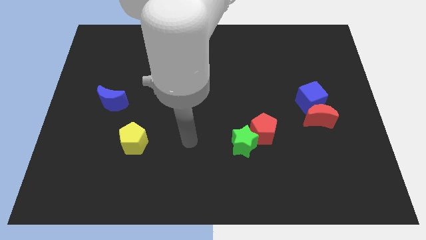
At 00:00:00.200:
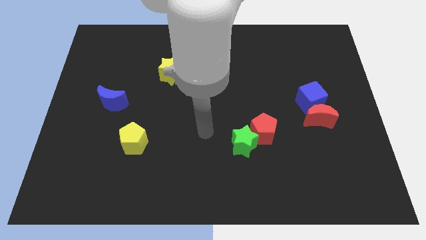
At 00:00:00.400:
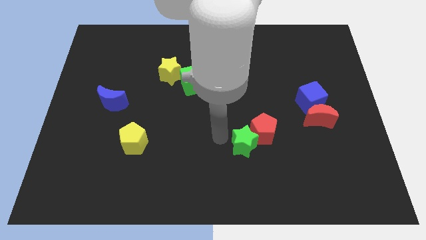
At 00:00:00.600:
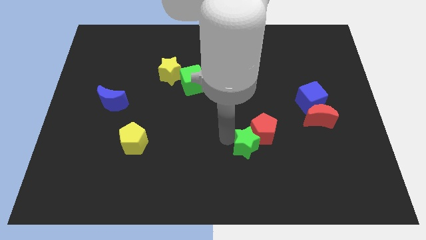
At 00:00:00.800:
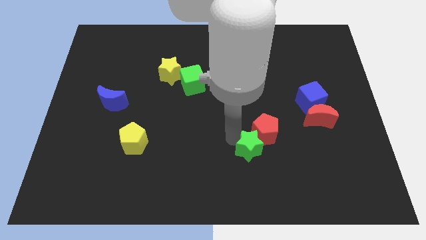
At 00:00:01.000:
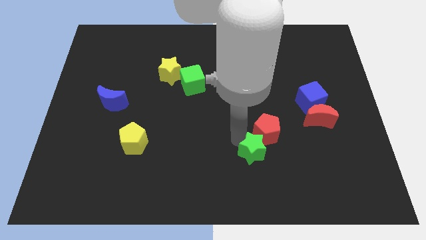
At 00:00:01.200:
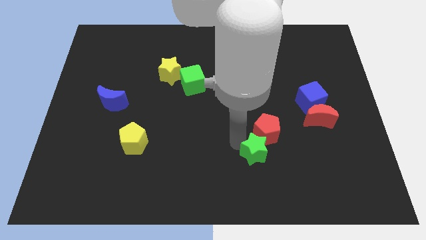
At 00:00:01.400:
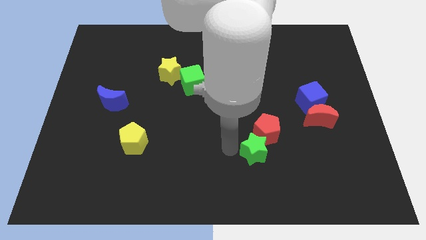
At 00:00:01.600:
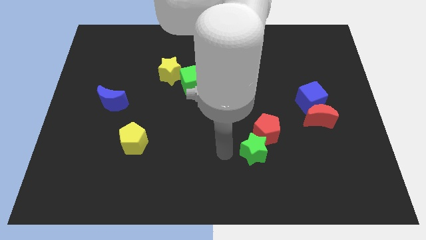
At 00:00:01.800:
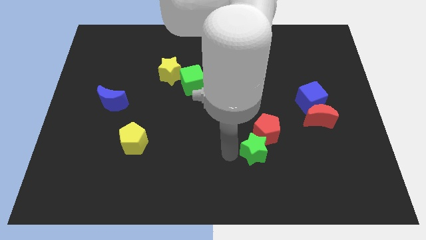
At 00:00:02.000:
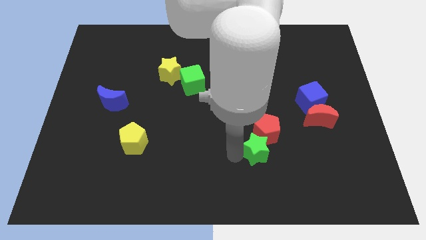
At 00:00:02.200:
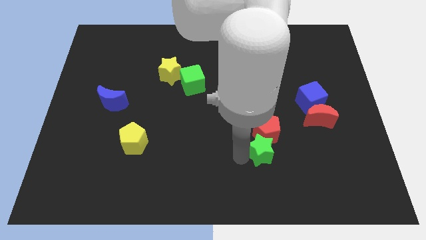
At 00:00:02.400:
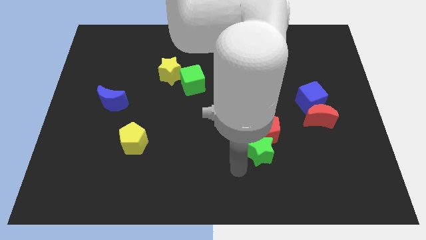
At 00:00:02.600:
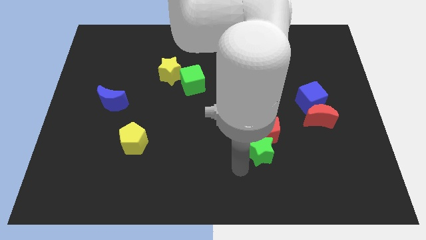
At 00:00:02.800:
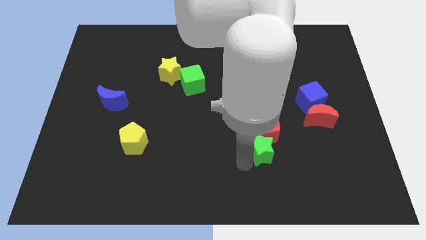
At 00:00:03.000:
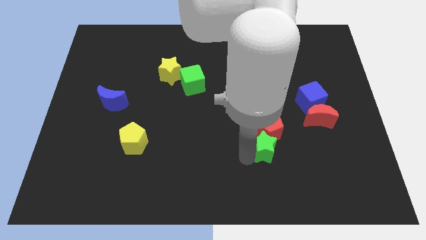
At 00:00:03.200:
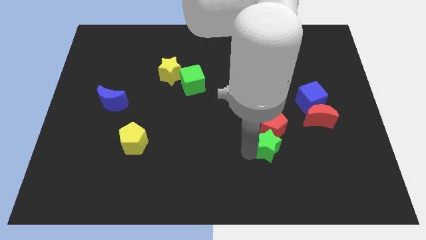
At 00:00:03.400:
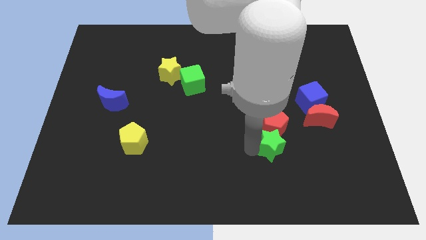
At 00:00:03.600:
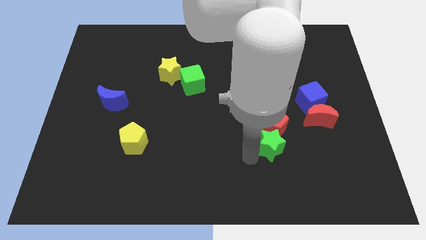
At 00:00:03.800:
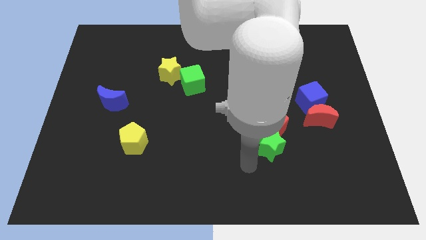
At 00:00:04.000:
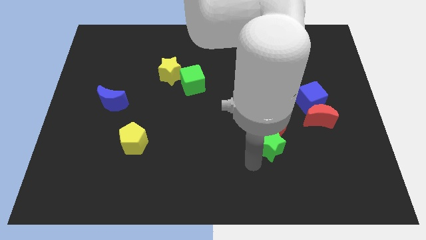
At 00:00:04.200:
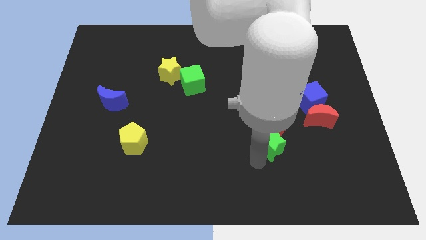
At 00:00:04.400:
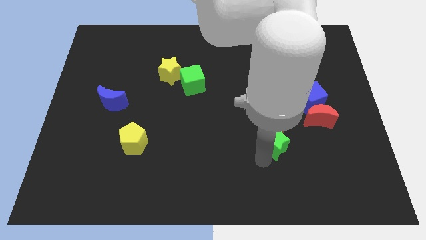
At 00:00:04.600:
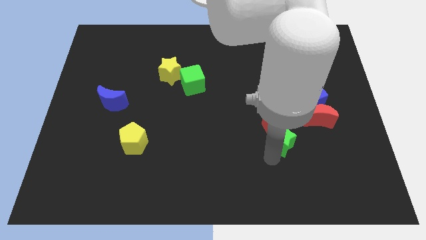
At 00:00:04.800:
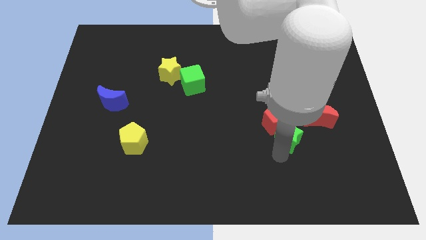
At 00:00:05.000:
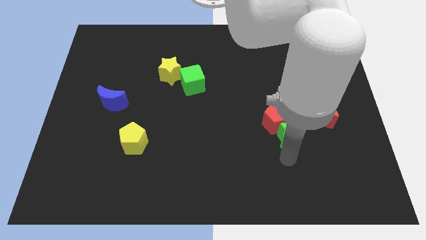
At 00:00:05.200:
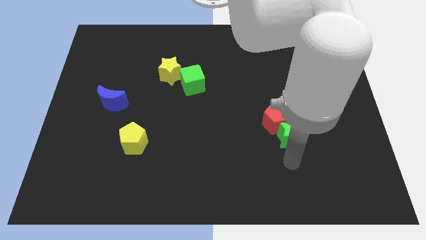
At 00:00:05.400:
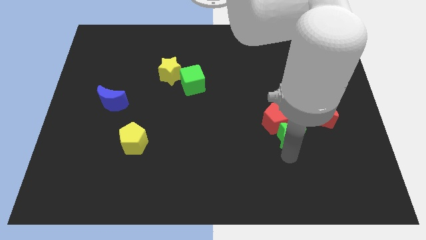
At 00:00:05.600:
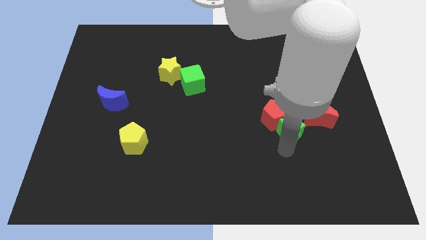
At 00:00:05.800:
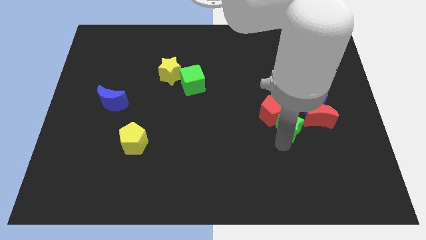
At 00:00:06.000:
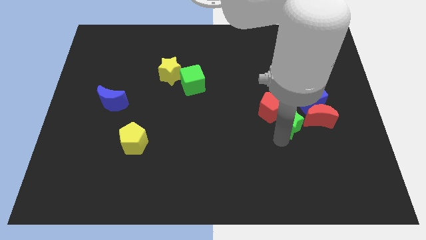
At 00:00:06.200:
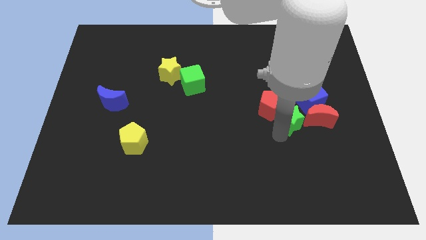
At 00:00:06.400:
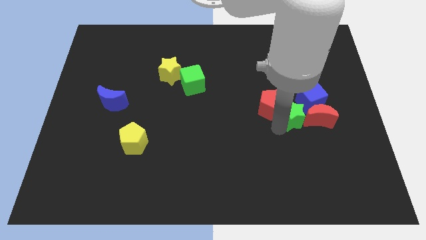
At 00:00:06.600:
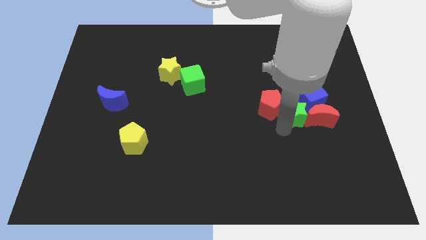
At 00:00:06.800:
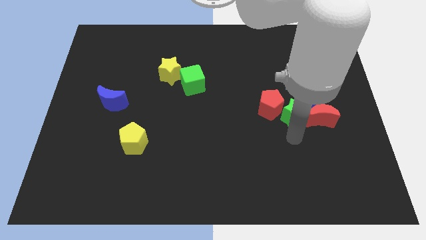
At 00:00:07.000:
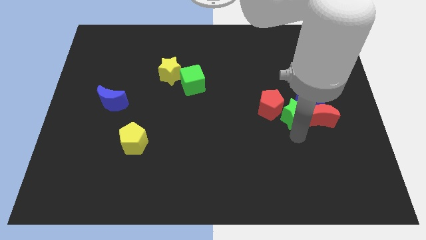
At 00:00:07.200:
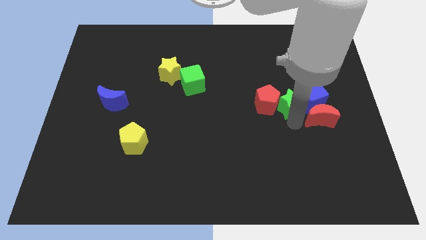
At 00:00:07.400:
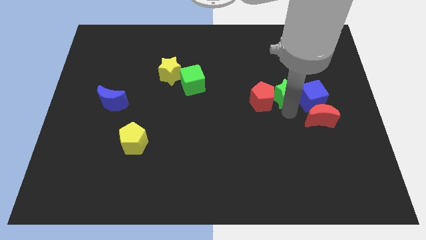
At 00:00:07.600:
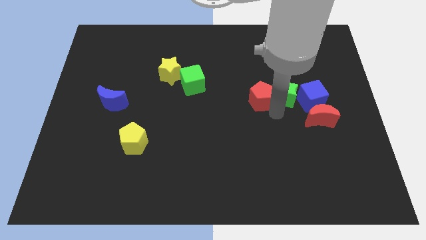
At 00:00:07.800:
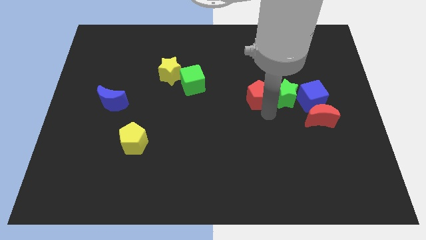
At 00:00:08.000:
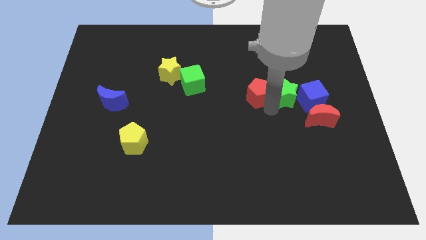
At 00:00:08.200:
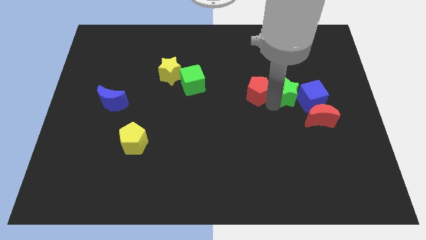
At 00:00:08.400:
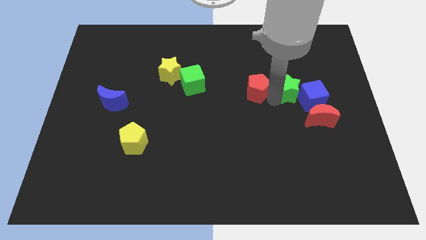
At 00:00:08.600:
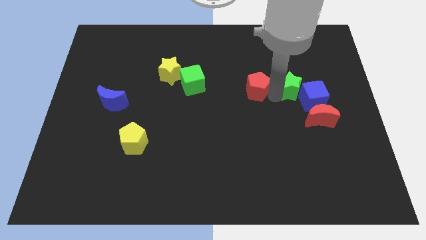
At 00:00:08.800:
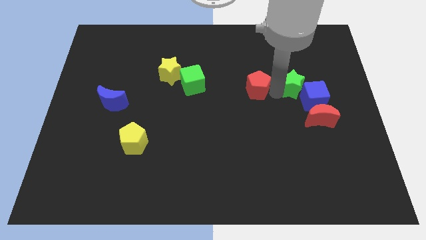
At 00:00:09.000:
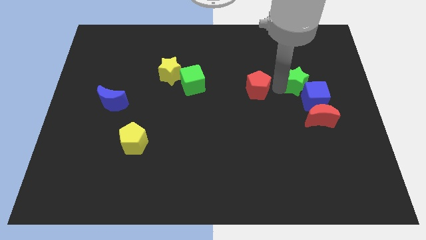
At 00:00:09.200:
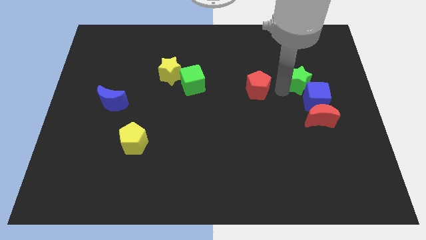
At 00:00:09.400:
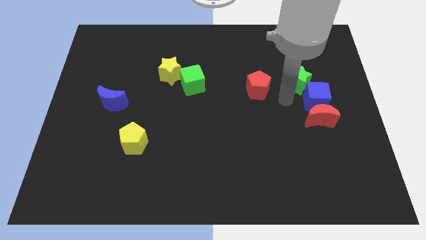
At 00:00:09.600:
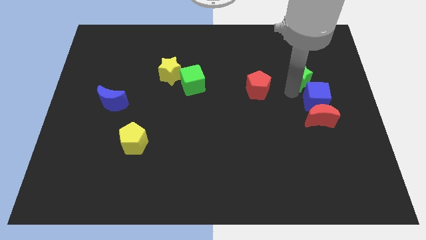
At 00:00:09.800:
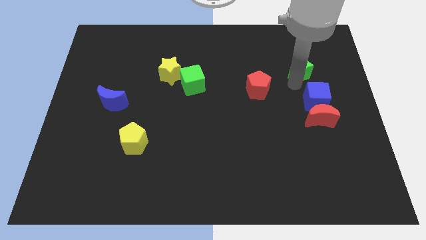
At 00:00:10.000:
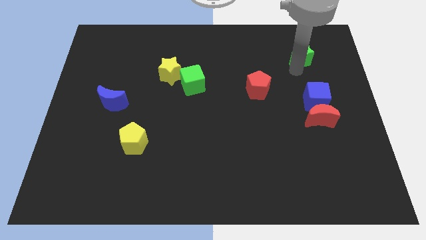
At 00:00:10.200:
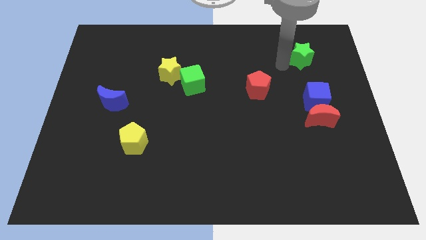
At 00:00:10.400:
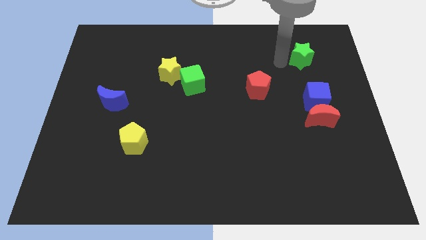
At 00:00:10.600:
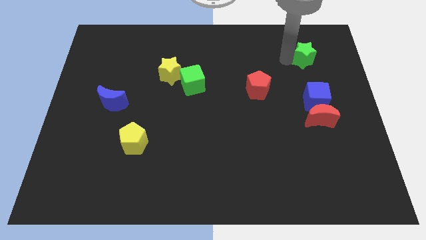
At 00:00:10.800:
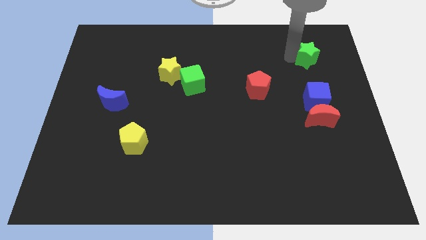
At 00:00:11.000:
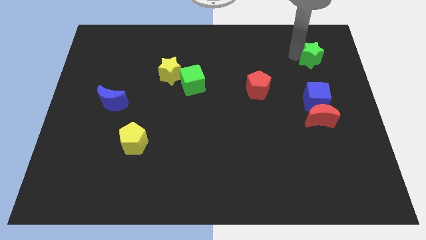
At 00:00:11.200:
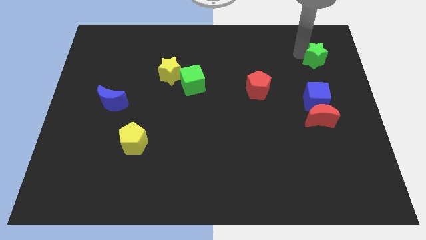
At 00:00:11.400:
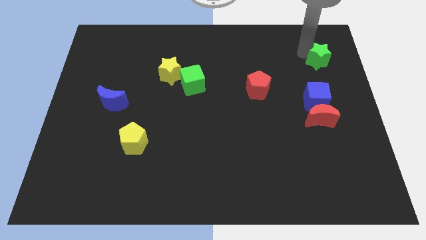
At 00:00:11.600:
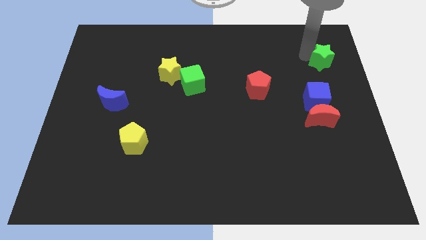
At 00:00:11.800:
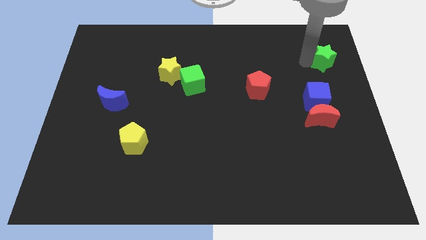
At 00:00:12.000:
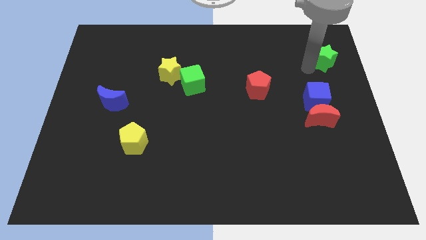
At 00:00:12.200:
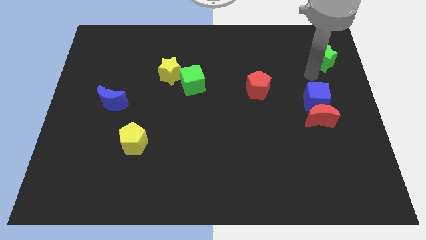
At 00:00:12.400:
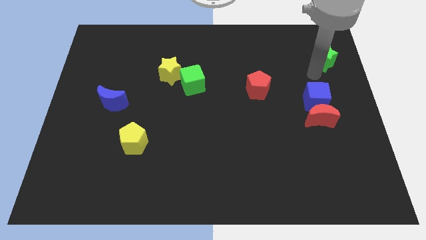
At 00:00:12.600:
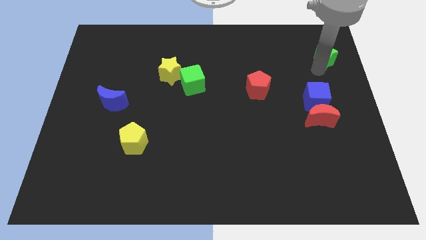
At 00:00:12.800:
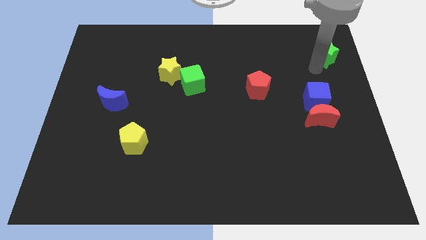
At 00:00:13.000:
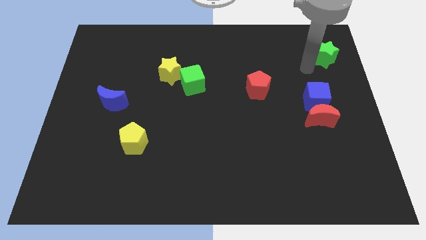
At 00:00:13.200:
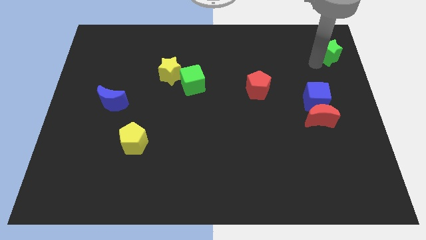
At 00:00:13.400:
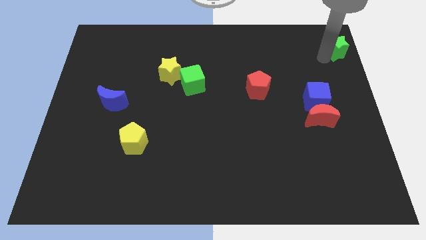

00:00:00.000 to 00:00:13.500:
slide the green star to the top right
